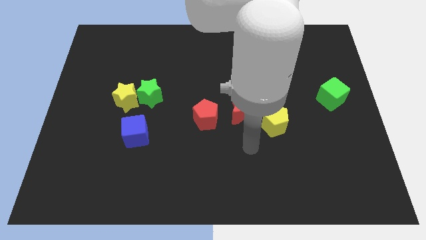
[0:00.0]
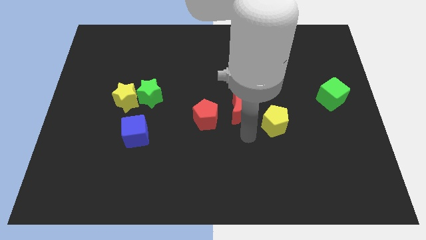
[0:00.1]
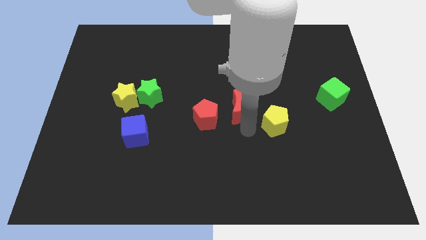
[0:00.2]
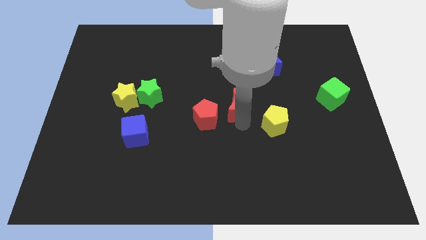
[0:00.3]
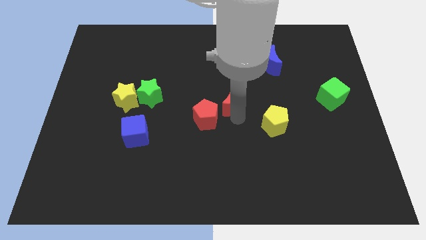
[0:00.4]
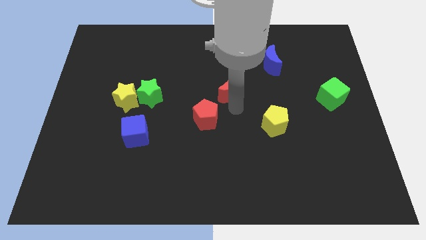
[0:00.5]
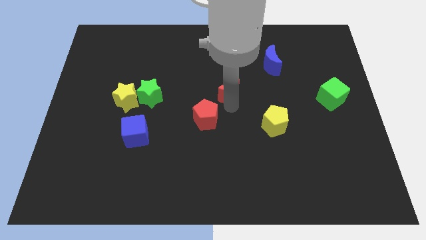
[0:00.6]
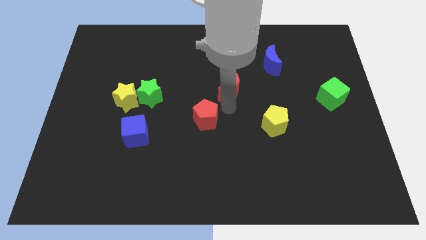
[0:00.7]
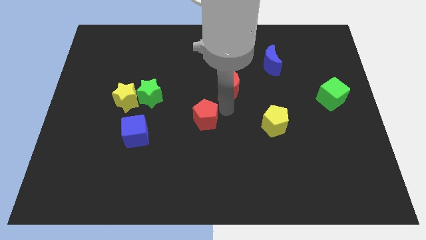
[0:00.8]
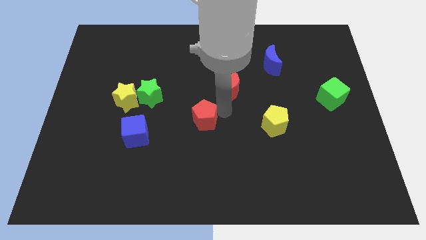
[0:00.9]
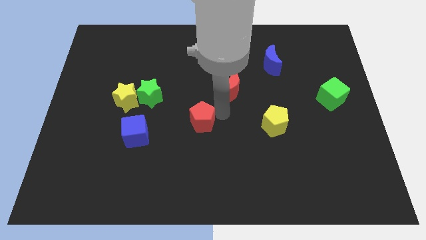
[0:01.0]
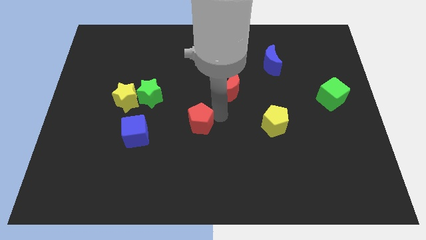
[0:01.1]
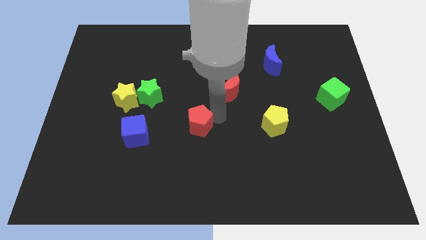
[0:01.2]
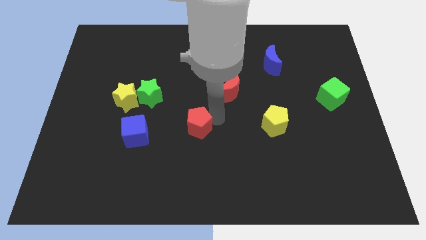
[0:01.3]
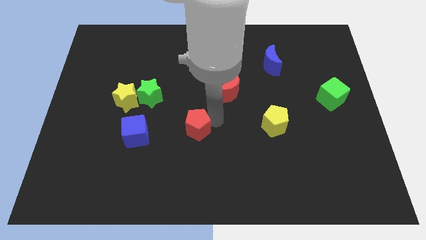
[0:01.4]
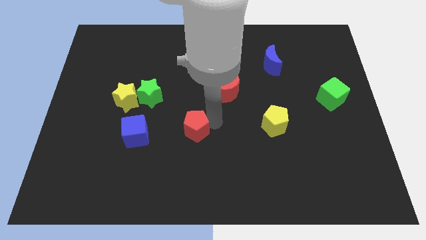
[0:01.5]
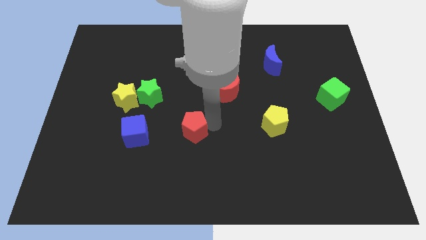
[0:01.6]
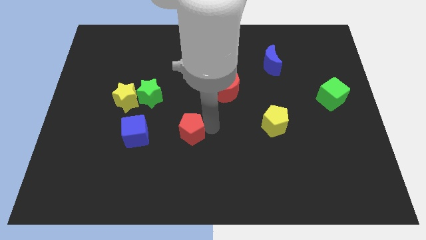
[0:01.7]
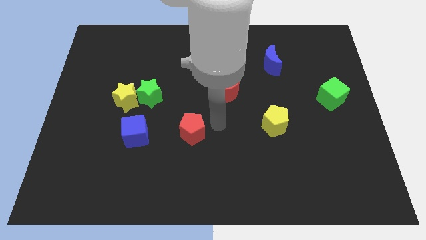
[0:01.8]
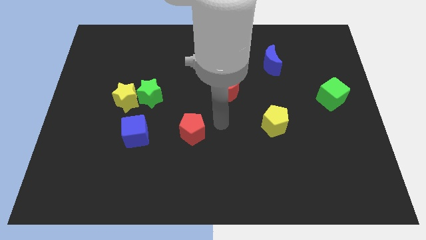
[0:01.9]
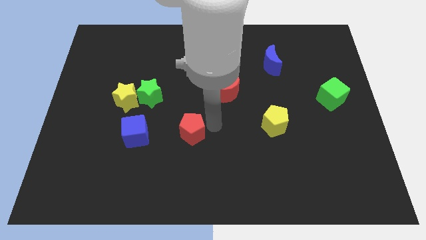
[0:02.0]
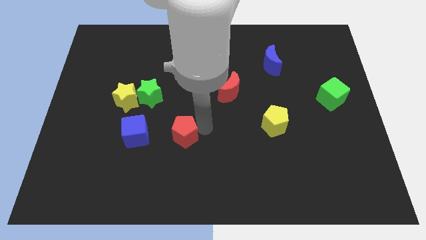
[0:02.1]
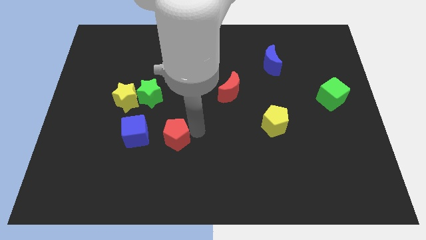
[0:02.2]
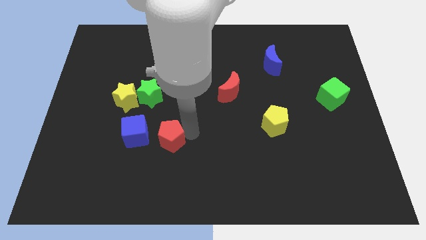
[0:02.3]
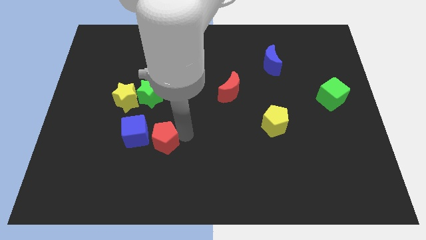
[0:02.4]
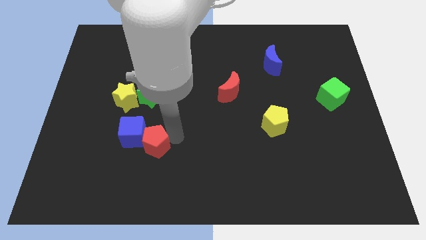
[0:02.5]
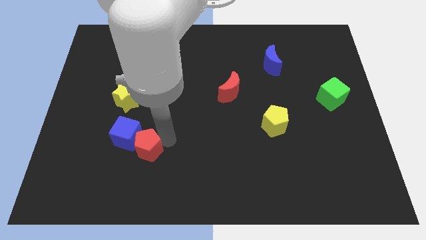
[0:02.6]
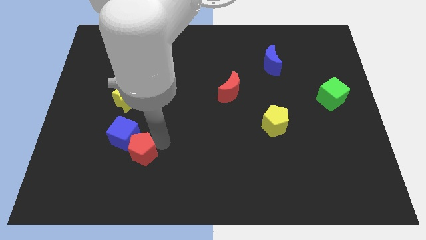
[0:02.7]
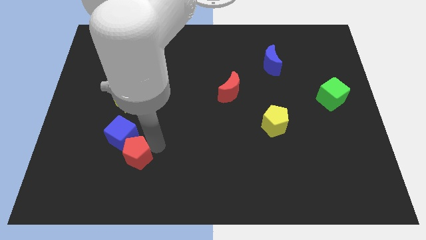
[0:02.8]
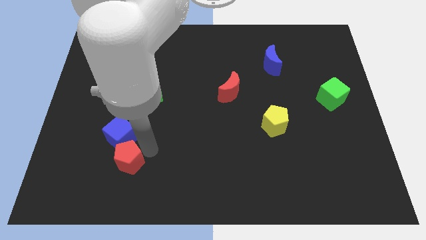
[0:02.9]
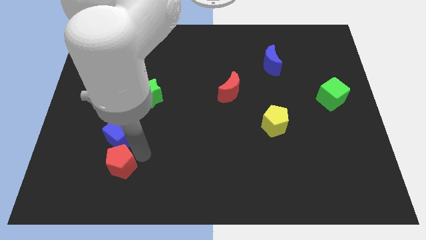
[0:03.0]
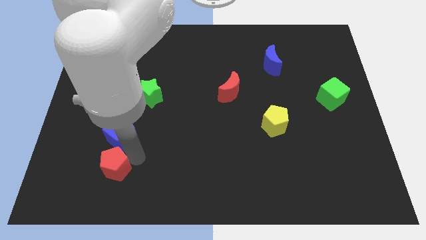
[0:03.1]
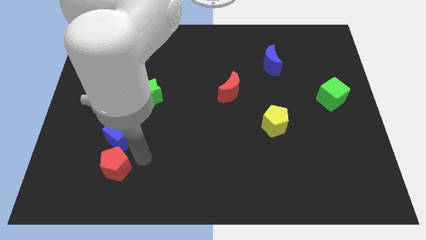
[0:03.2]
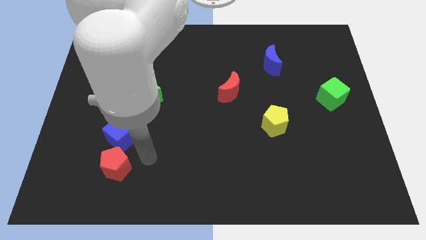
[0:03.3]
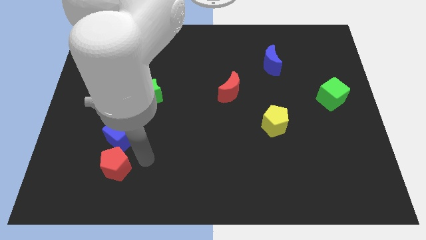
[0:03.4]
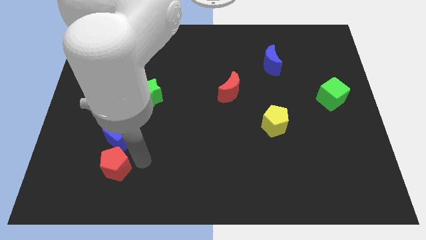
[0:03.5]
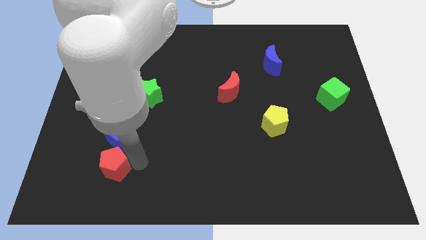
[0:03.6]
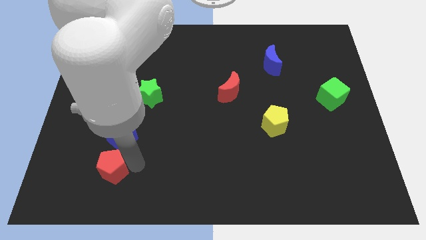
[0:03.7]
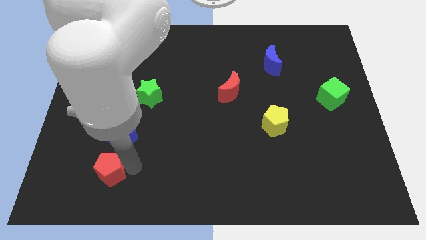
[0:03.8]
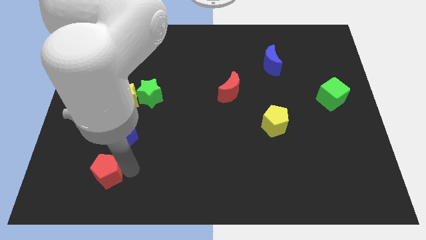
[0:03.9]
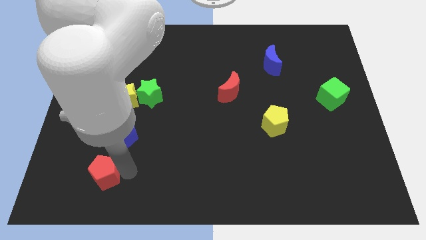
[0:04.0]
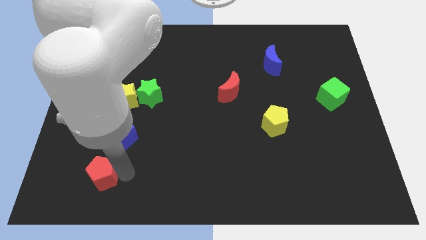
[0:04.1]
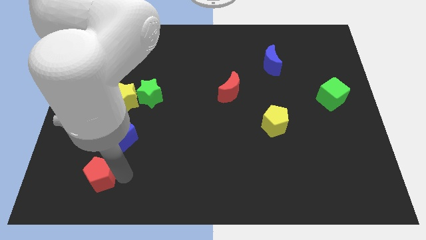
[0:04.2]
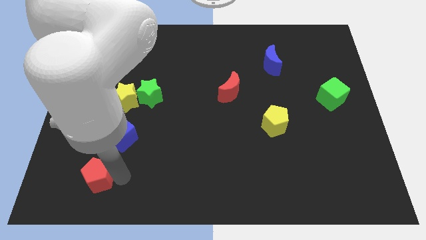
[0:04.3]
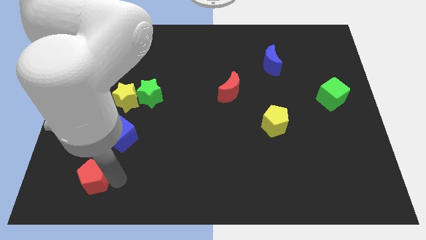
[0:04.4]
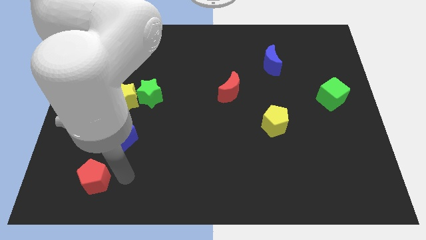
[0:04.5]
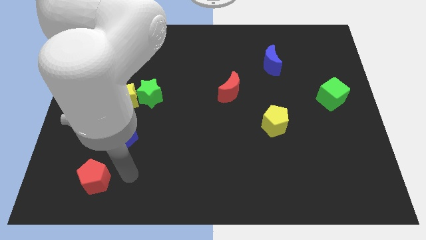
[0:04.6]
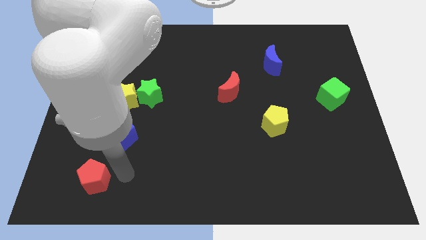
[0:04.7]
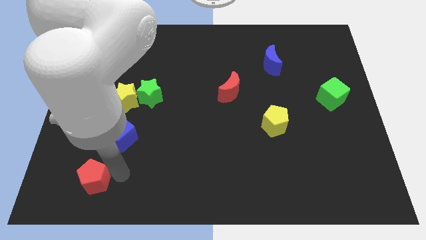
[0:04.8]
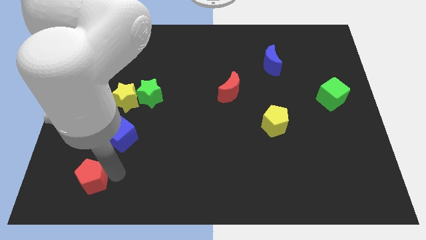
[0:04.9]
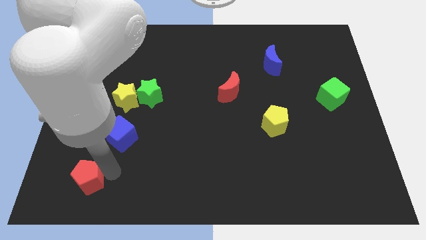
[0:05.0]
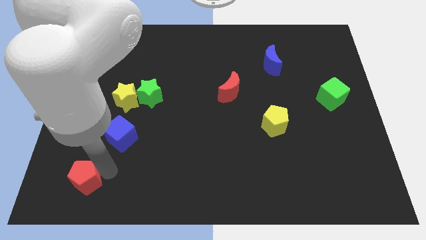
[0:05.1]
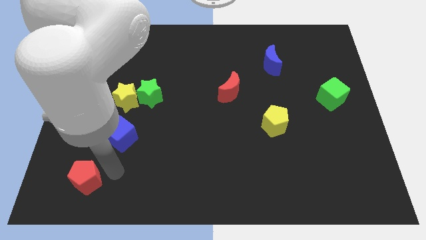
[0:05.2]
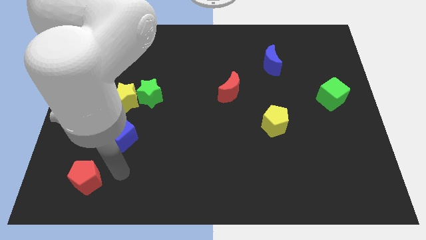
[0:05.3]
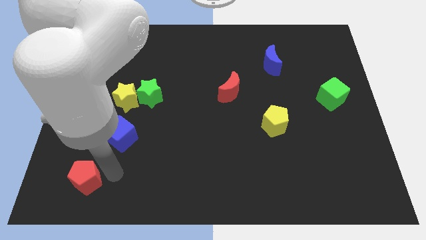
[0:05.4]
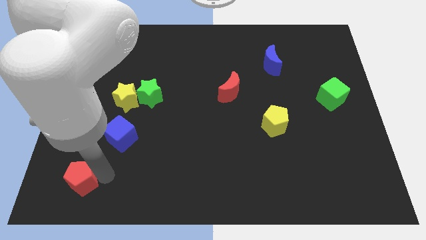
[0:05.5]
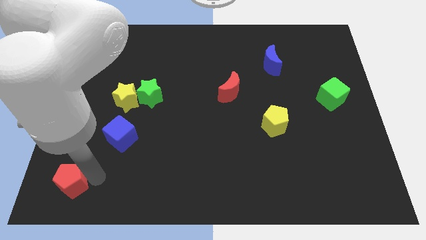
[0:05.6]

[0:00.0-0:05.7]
slide the red pentagon to the bottom left of the board
